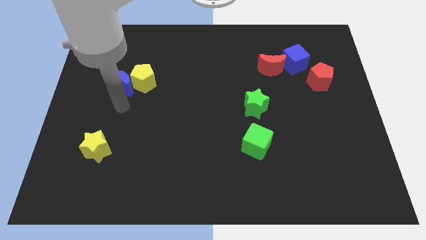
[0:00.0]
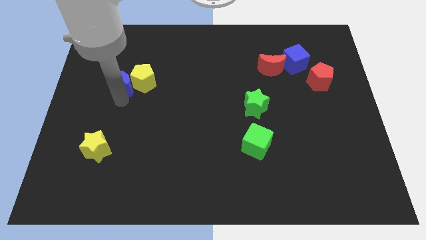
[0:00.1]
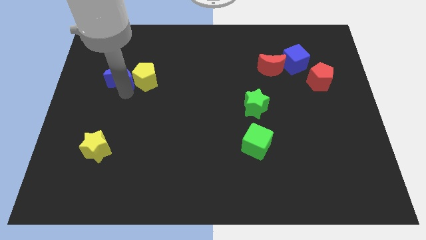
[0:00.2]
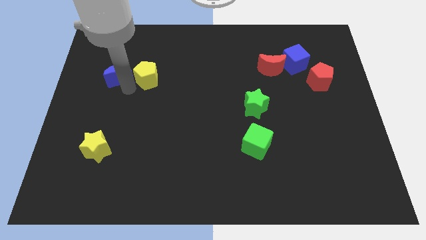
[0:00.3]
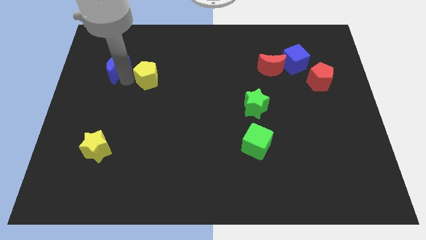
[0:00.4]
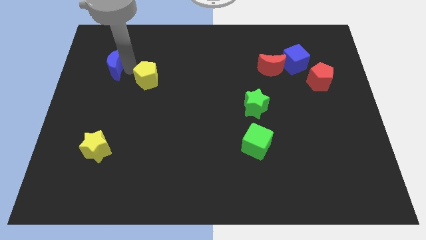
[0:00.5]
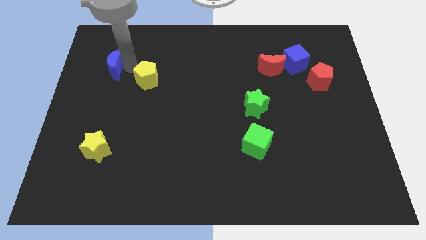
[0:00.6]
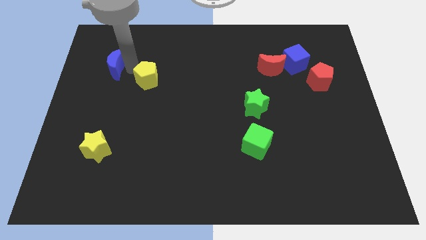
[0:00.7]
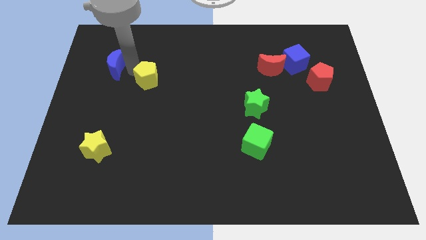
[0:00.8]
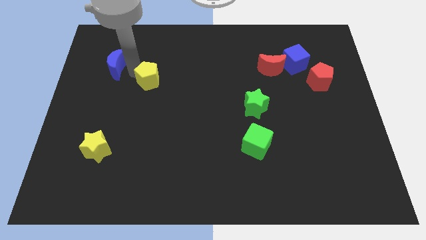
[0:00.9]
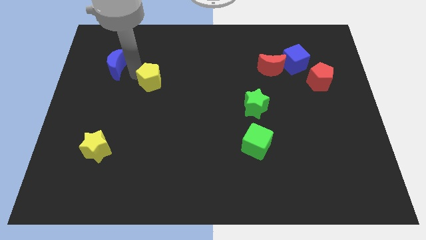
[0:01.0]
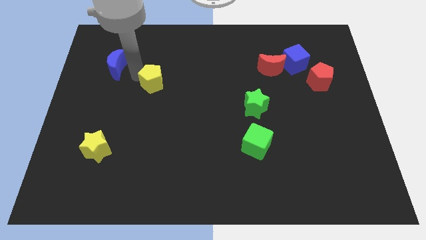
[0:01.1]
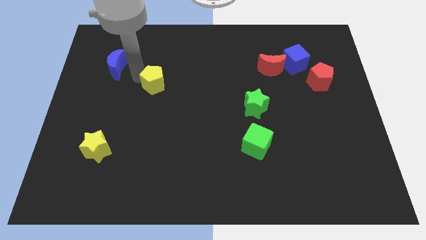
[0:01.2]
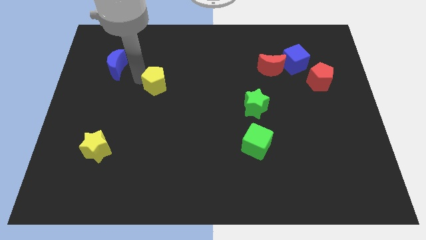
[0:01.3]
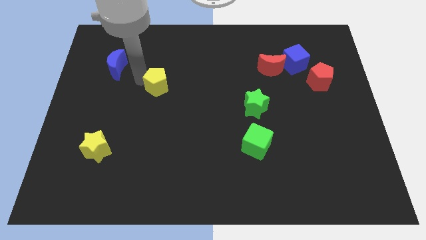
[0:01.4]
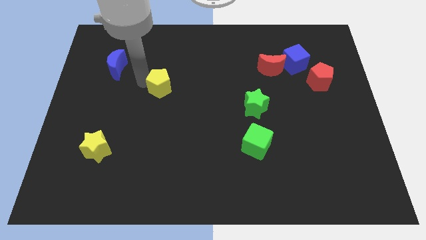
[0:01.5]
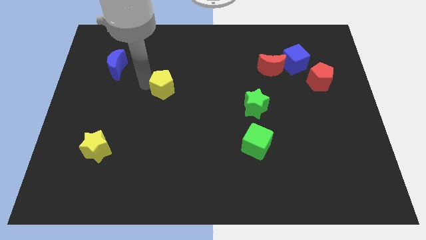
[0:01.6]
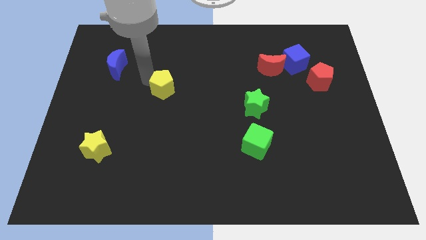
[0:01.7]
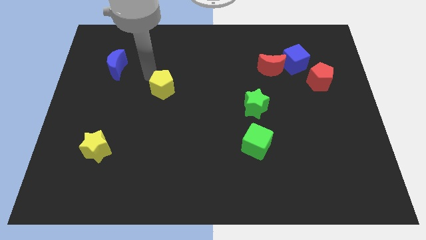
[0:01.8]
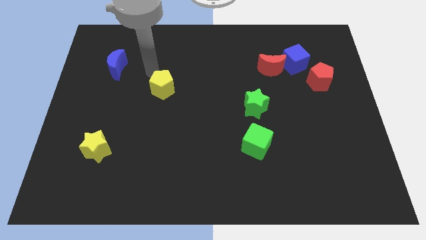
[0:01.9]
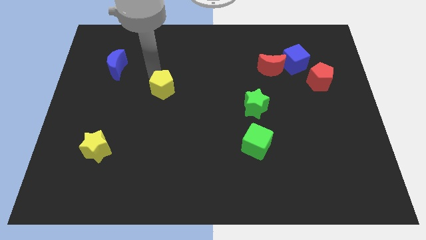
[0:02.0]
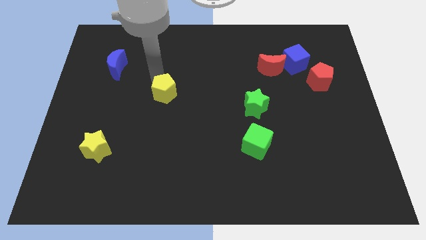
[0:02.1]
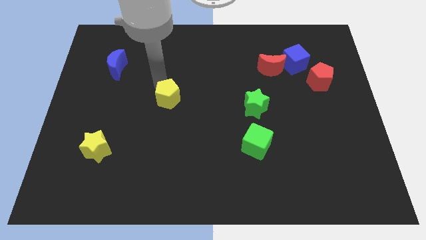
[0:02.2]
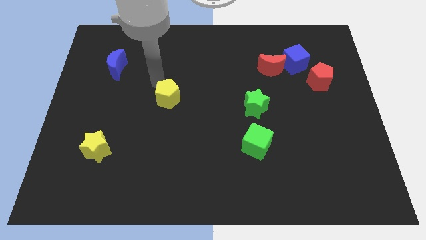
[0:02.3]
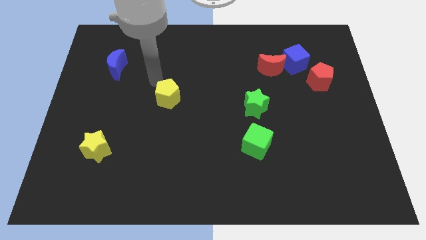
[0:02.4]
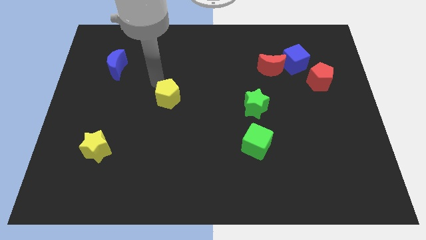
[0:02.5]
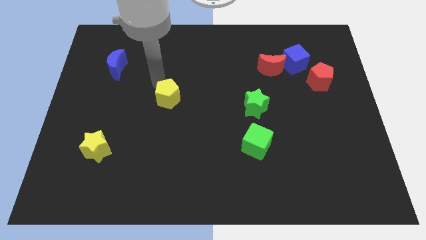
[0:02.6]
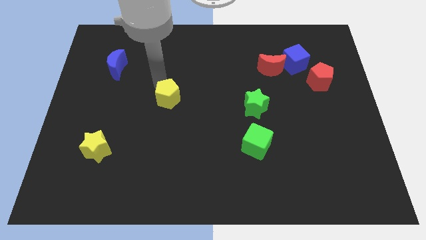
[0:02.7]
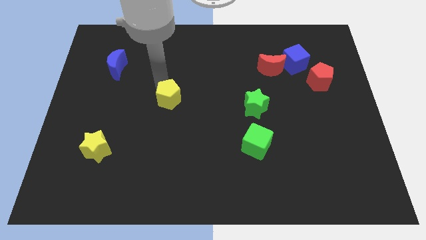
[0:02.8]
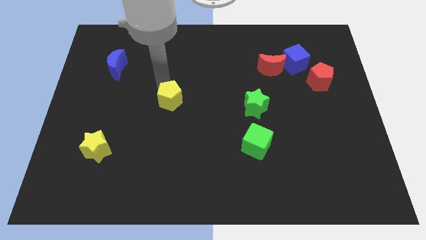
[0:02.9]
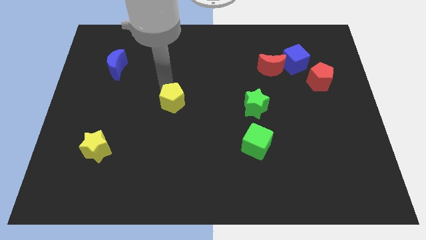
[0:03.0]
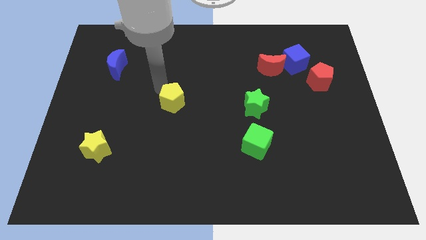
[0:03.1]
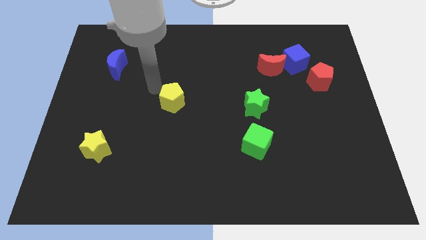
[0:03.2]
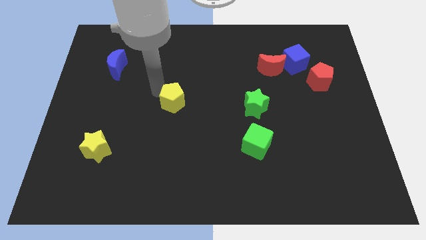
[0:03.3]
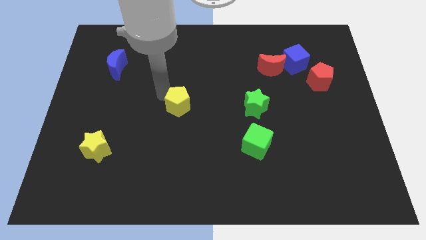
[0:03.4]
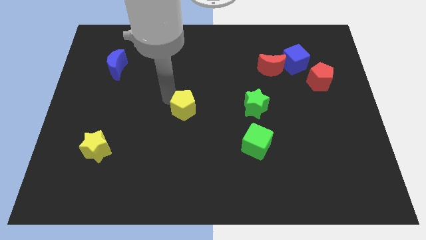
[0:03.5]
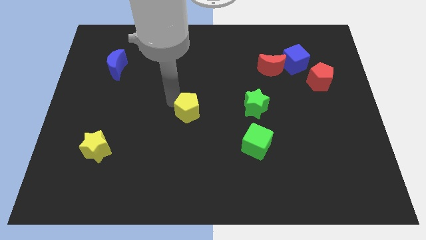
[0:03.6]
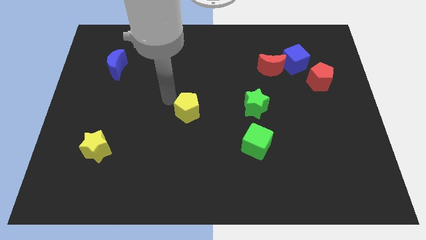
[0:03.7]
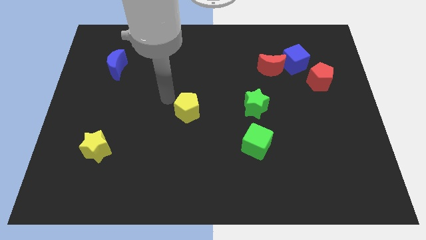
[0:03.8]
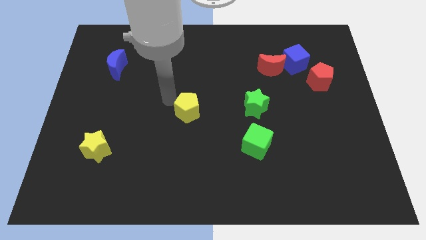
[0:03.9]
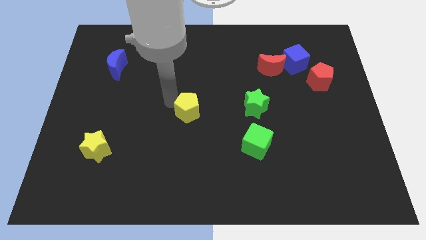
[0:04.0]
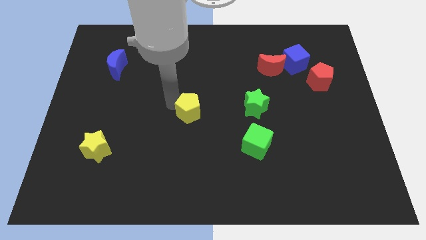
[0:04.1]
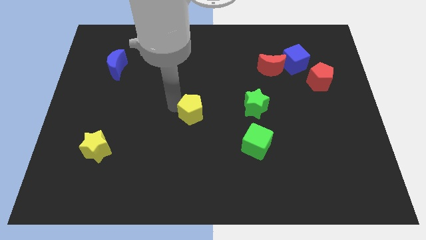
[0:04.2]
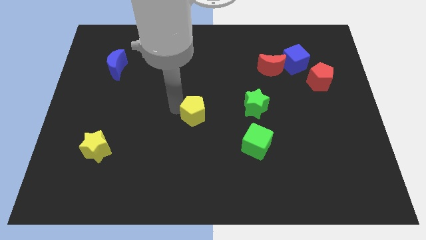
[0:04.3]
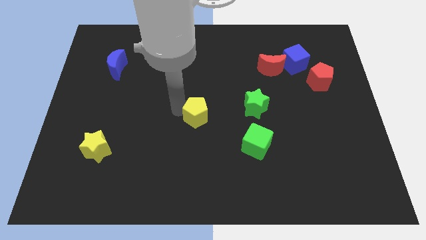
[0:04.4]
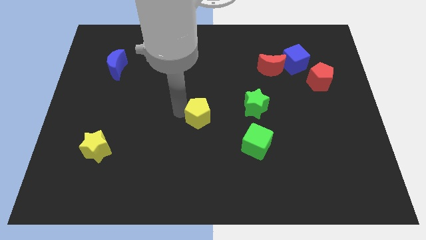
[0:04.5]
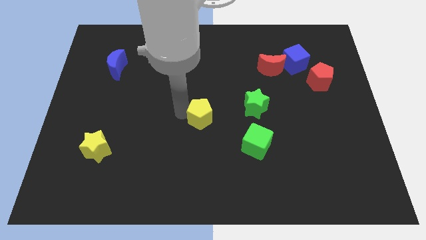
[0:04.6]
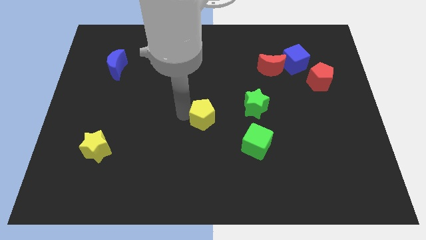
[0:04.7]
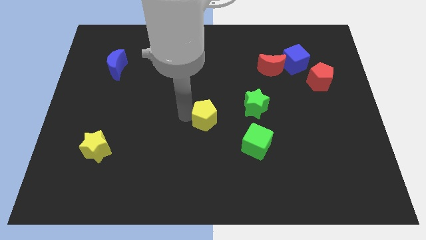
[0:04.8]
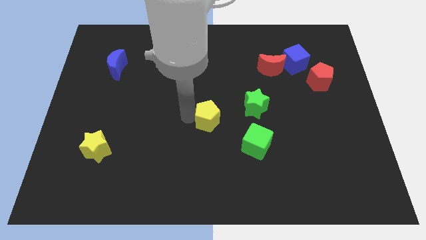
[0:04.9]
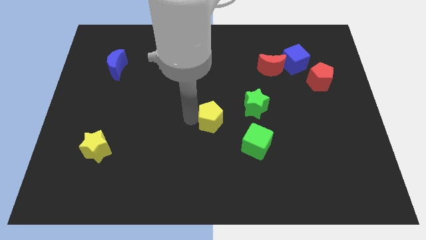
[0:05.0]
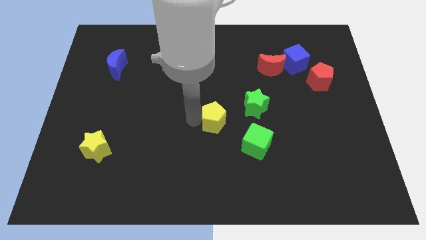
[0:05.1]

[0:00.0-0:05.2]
push the yellow pentagon to the bottom left side of the green star

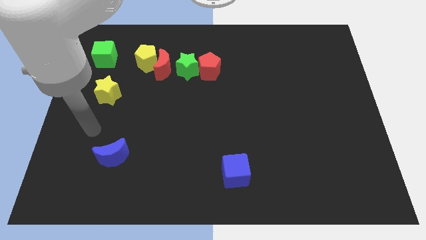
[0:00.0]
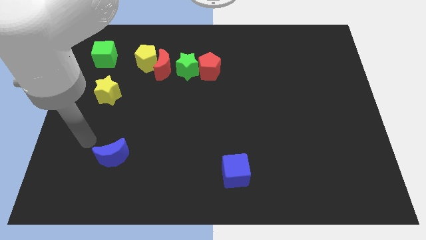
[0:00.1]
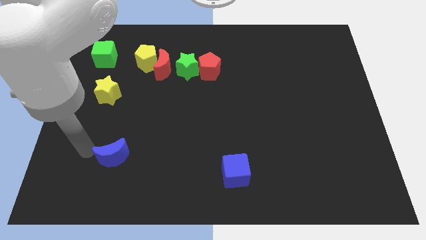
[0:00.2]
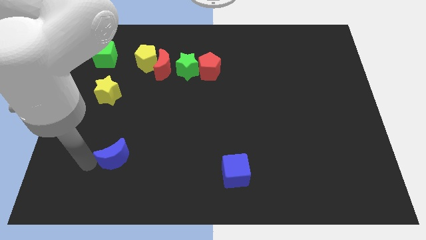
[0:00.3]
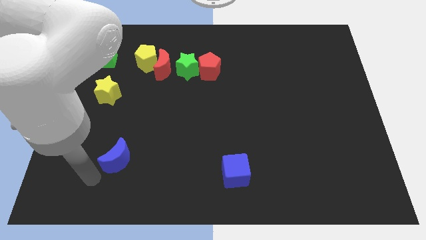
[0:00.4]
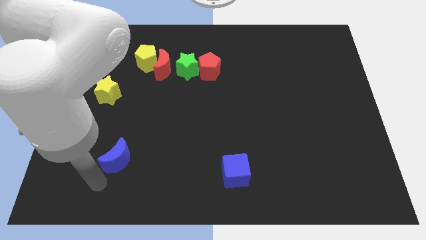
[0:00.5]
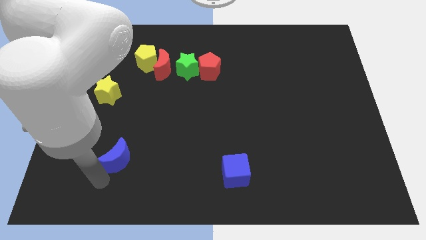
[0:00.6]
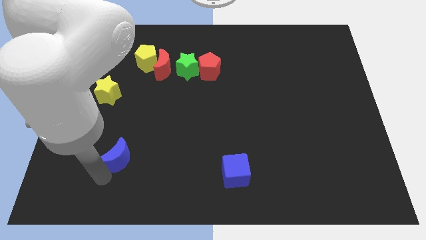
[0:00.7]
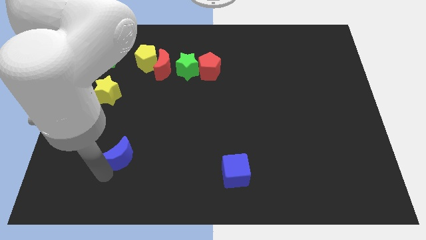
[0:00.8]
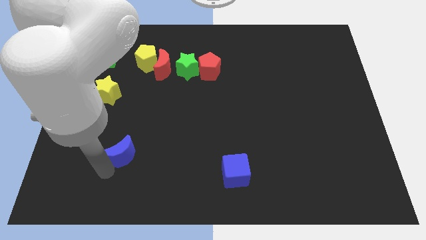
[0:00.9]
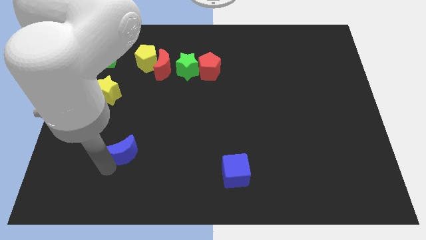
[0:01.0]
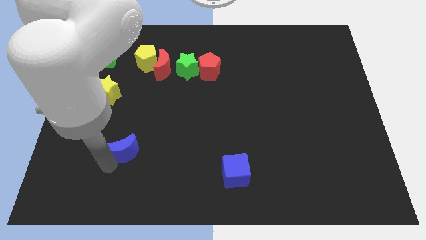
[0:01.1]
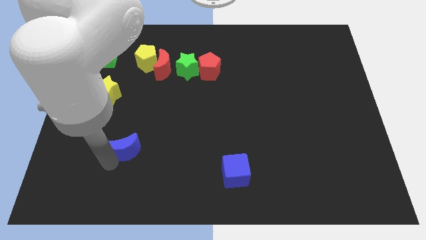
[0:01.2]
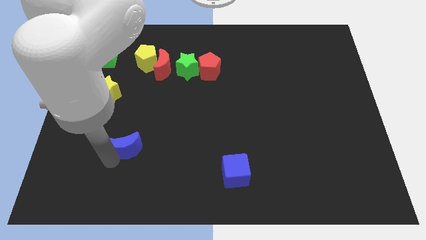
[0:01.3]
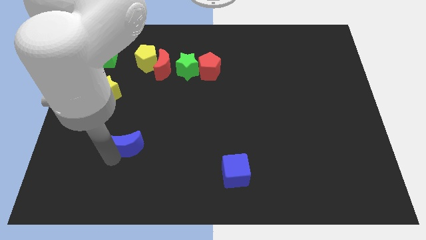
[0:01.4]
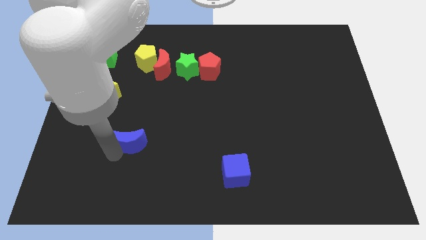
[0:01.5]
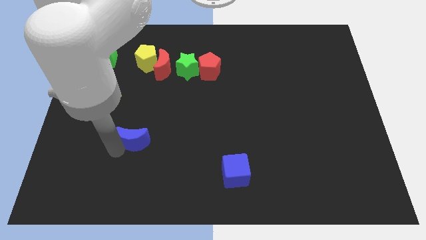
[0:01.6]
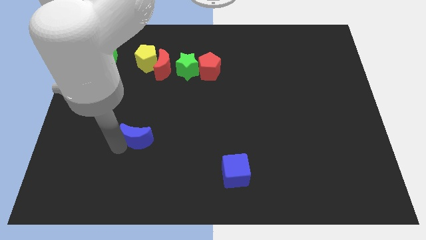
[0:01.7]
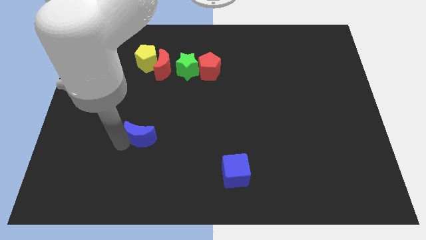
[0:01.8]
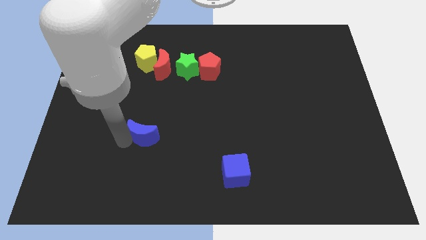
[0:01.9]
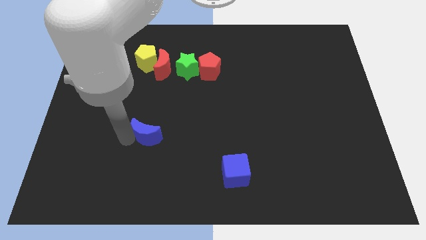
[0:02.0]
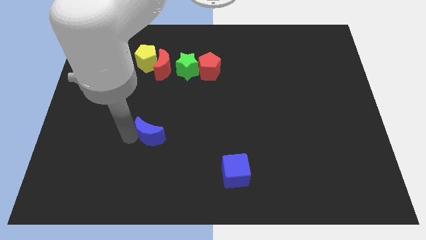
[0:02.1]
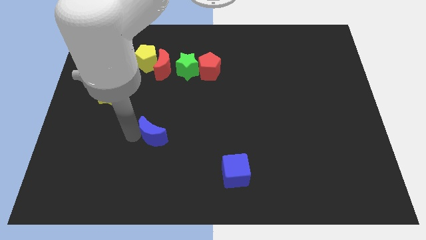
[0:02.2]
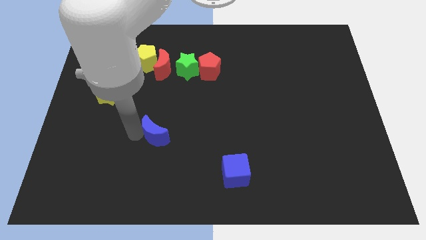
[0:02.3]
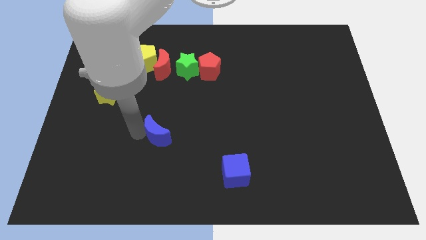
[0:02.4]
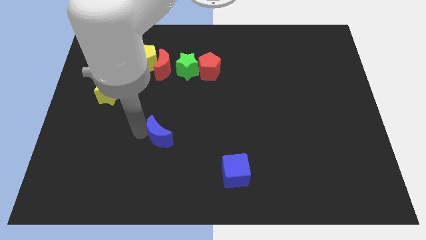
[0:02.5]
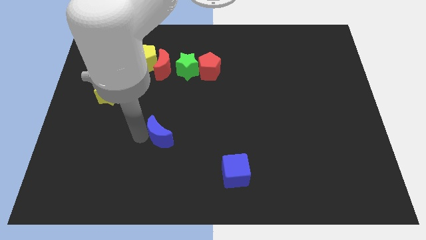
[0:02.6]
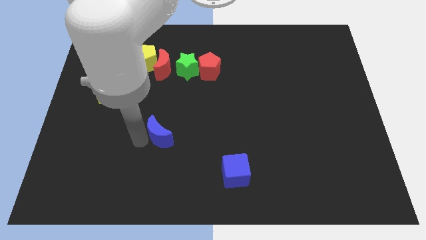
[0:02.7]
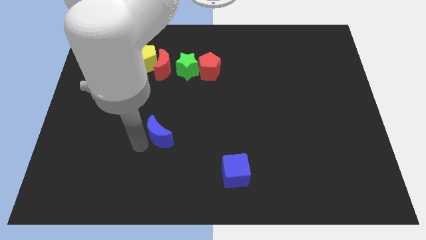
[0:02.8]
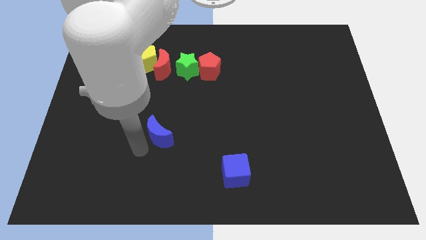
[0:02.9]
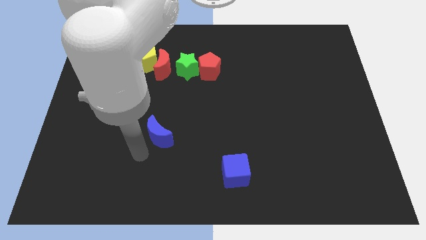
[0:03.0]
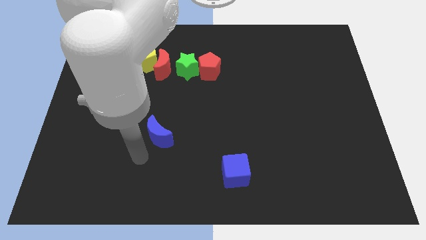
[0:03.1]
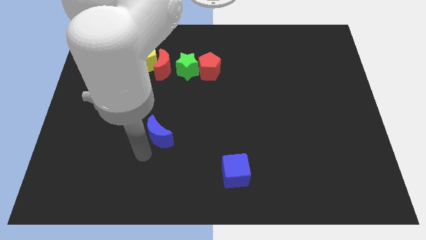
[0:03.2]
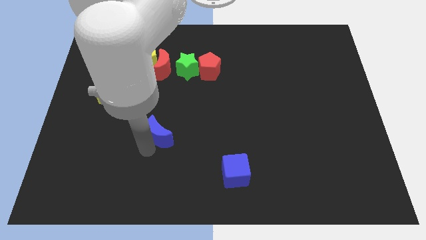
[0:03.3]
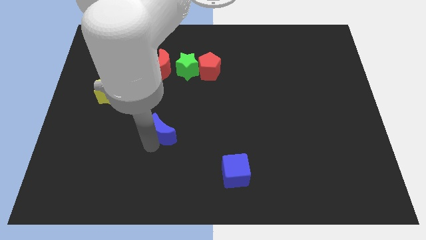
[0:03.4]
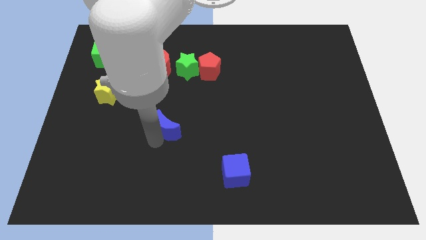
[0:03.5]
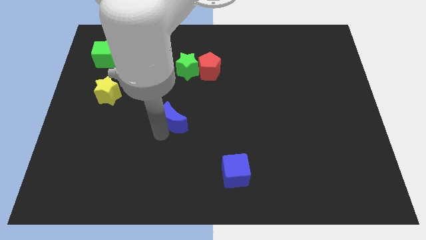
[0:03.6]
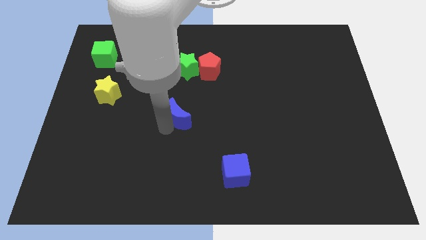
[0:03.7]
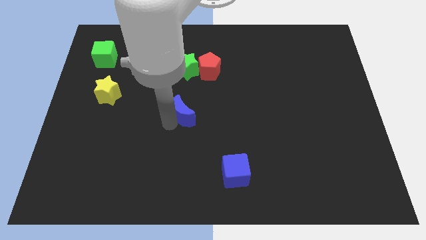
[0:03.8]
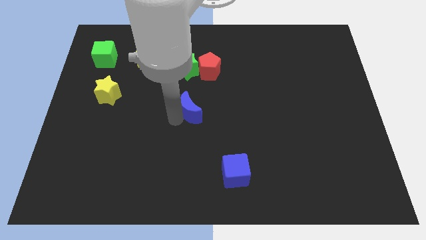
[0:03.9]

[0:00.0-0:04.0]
push the blue moon to the bottom of the red pentagon
